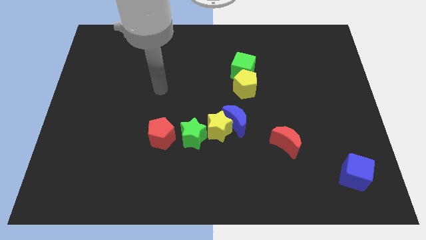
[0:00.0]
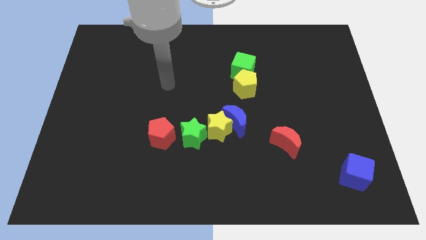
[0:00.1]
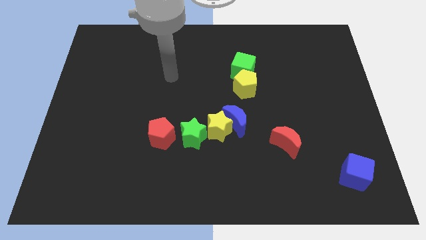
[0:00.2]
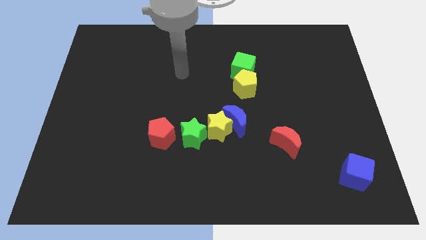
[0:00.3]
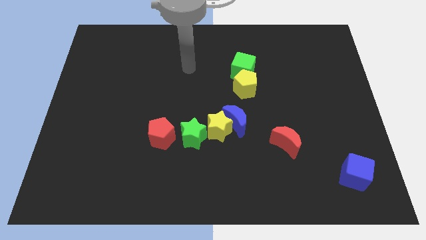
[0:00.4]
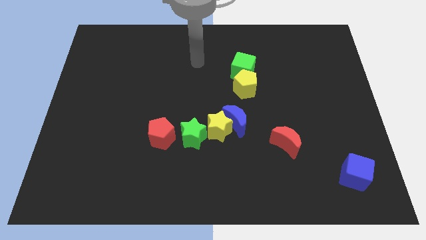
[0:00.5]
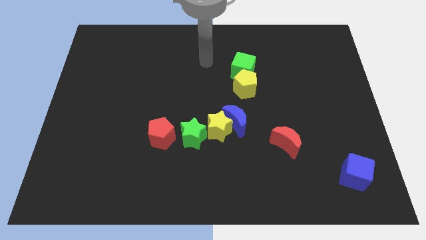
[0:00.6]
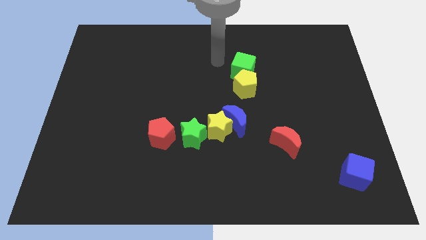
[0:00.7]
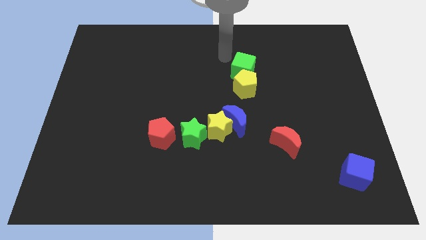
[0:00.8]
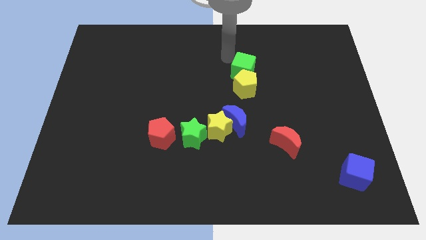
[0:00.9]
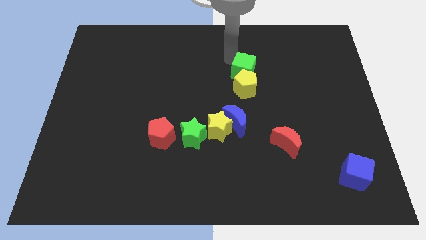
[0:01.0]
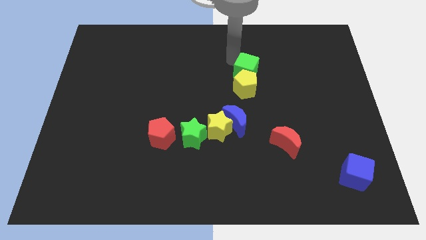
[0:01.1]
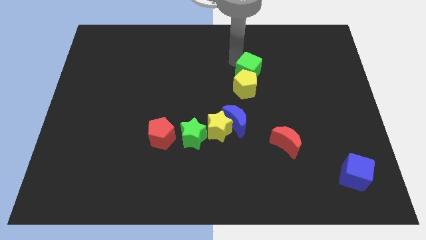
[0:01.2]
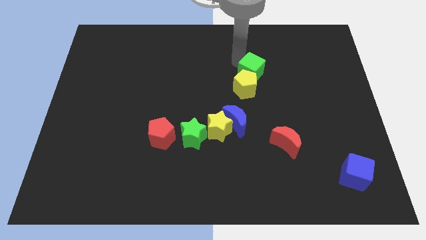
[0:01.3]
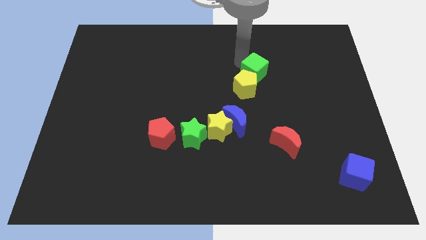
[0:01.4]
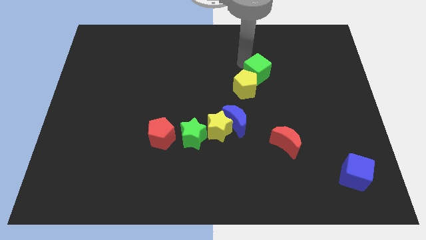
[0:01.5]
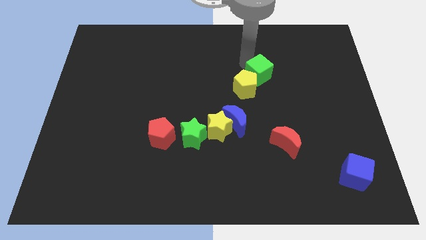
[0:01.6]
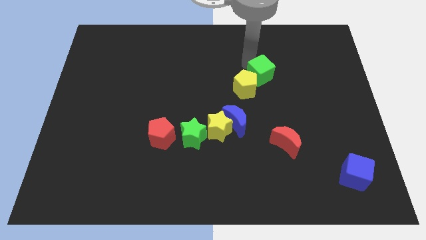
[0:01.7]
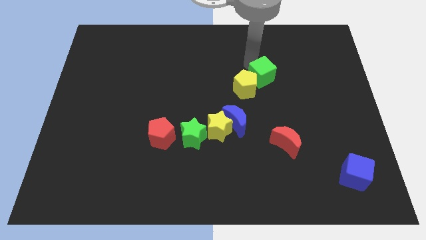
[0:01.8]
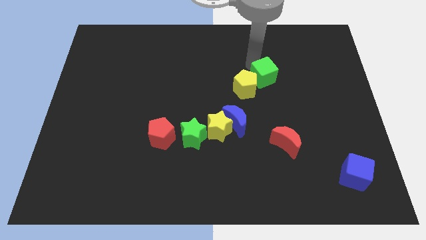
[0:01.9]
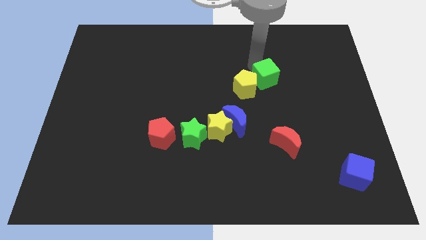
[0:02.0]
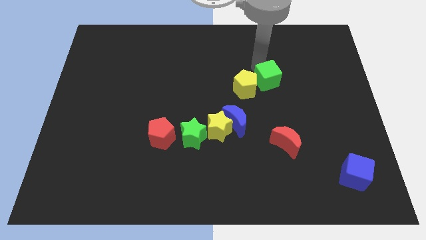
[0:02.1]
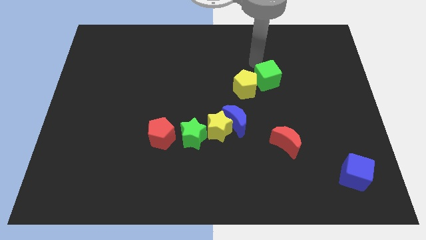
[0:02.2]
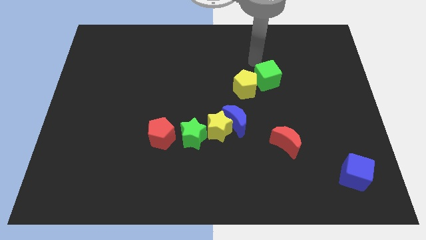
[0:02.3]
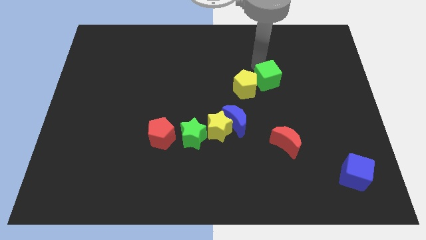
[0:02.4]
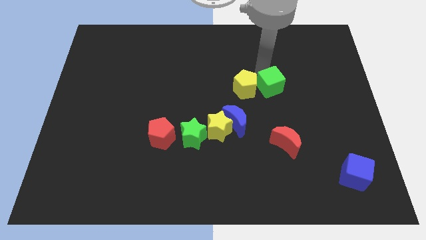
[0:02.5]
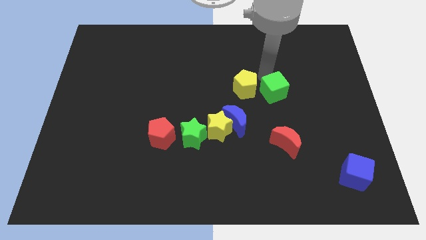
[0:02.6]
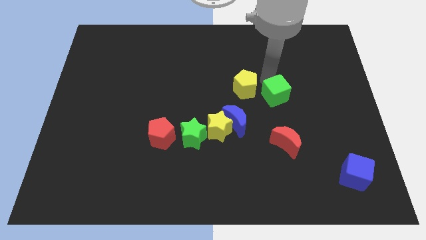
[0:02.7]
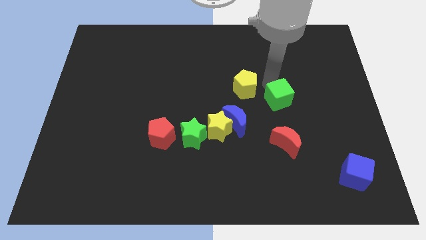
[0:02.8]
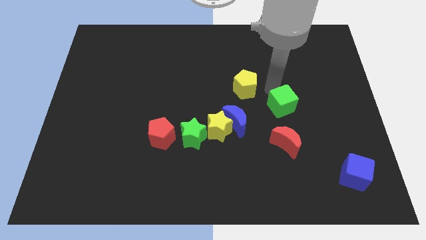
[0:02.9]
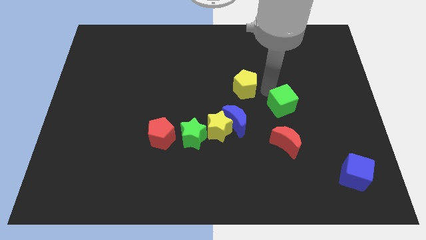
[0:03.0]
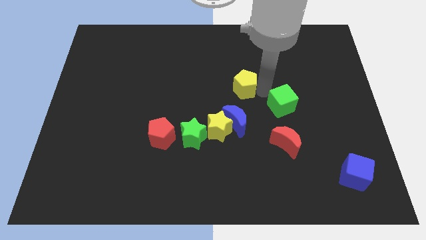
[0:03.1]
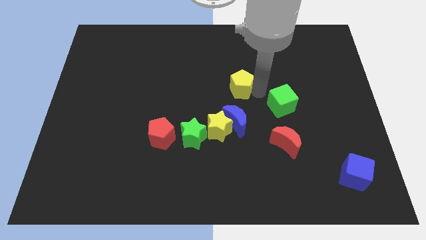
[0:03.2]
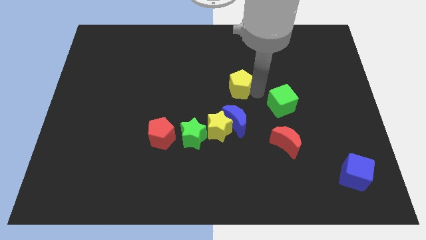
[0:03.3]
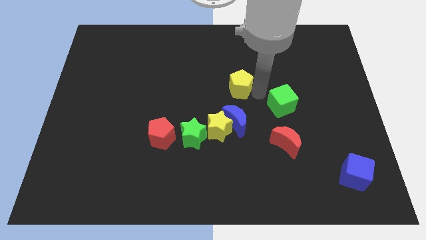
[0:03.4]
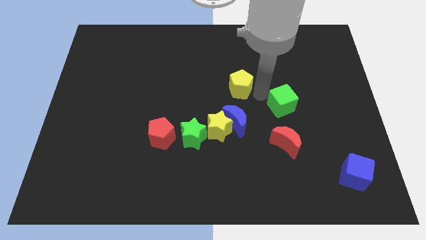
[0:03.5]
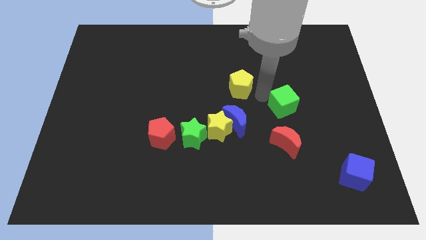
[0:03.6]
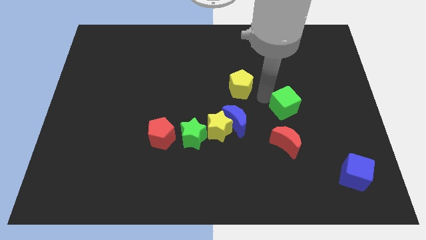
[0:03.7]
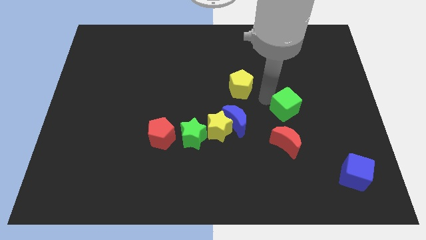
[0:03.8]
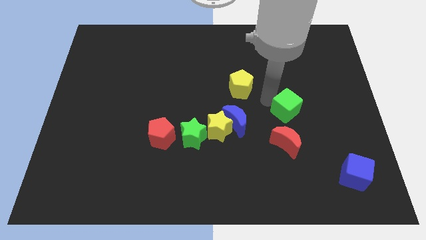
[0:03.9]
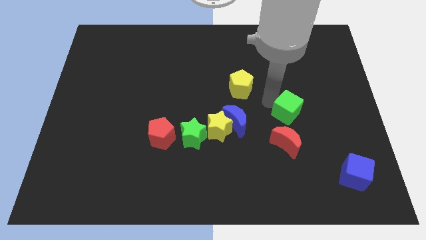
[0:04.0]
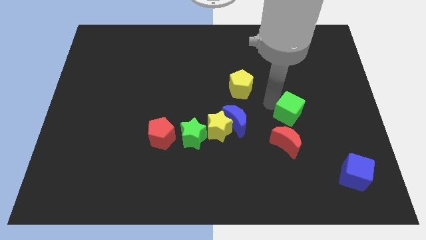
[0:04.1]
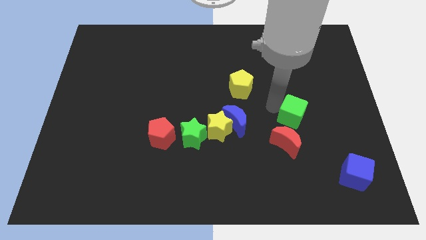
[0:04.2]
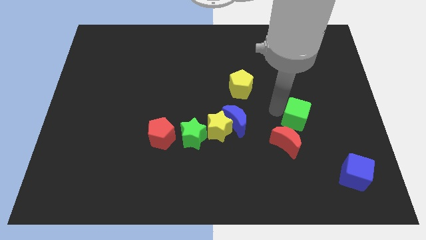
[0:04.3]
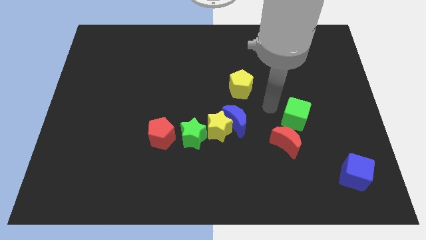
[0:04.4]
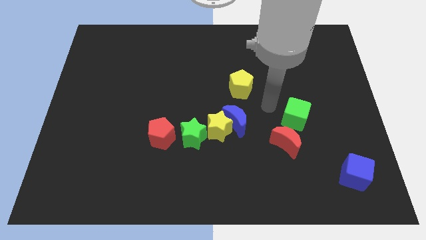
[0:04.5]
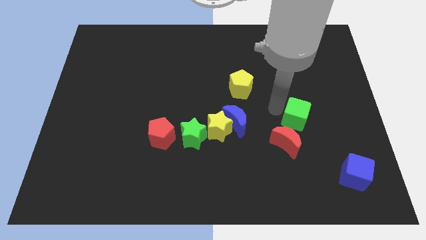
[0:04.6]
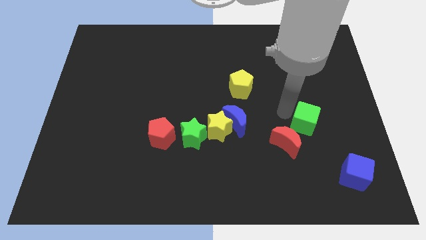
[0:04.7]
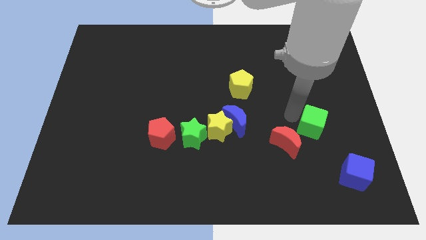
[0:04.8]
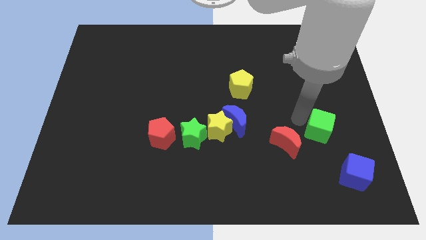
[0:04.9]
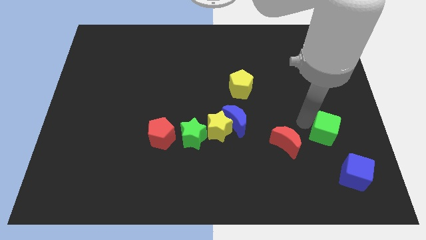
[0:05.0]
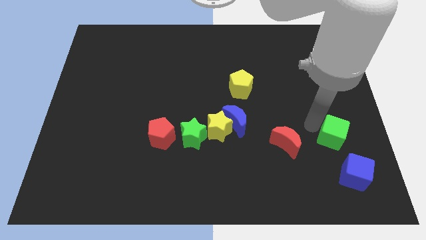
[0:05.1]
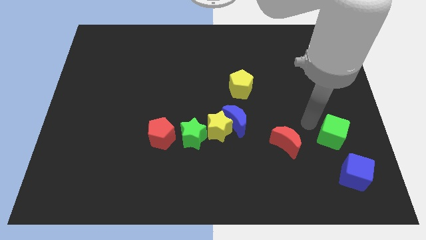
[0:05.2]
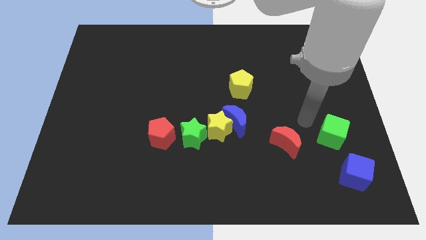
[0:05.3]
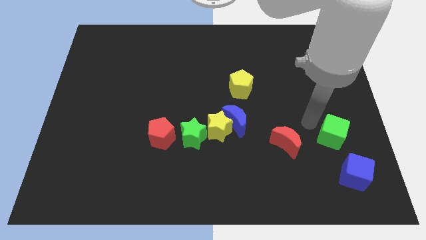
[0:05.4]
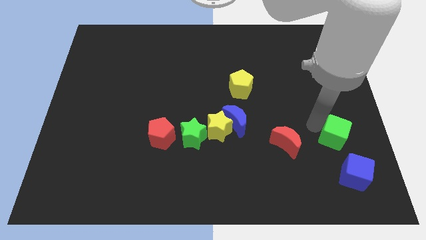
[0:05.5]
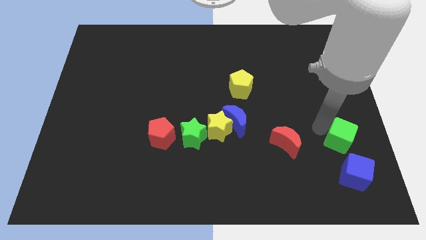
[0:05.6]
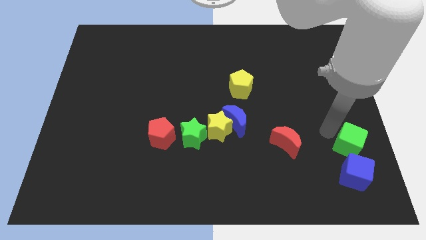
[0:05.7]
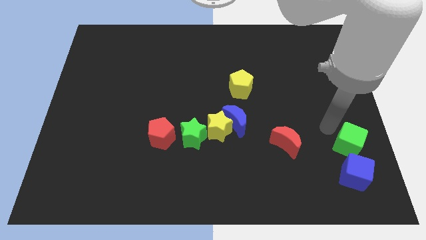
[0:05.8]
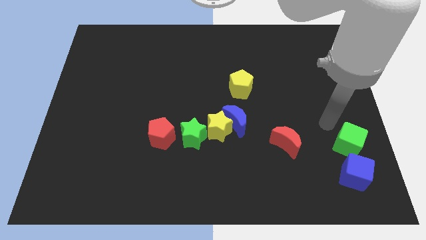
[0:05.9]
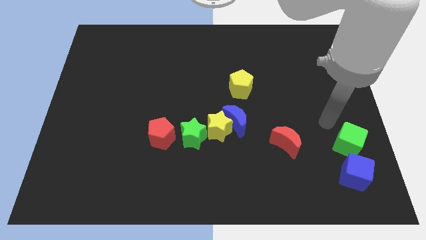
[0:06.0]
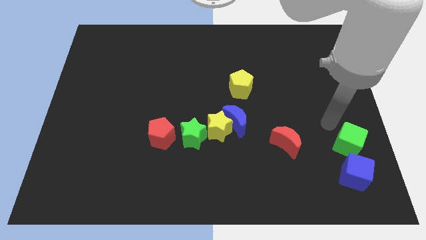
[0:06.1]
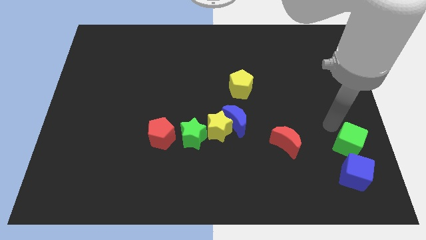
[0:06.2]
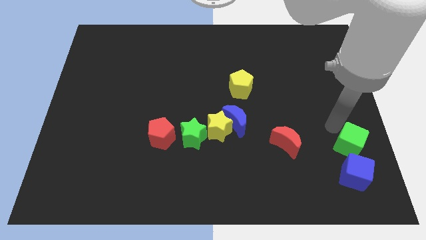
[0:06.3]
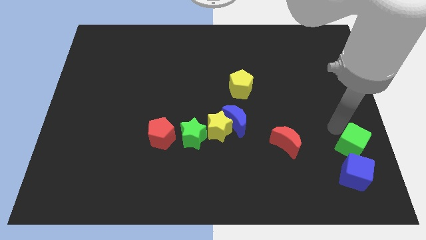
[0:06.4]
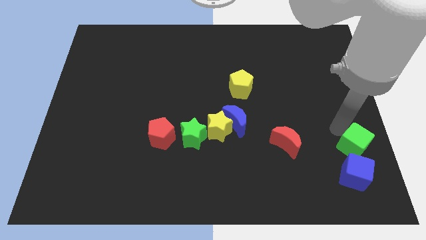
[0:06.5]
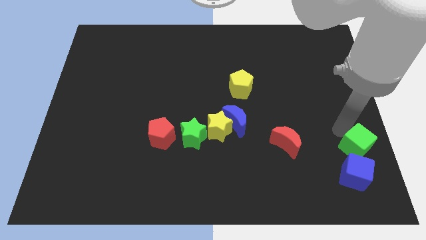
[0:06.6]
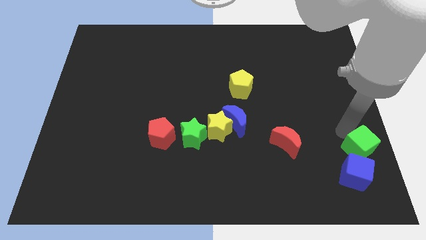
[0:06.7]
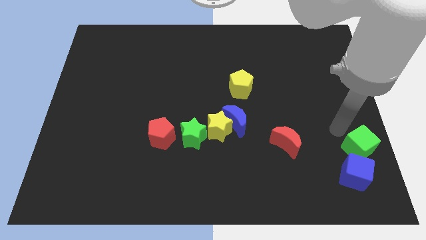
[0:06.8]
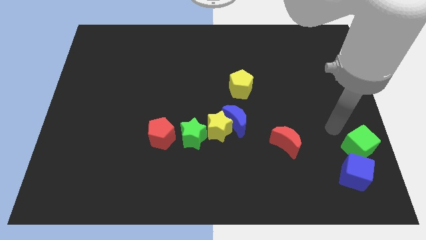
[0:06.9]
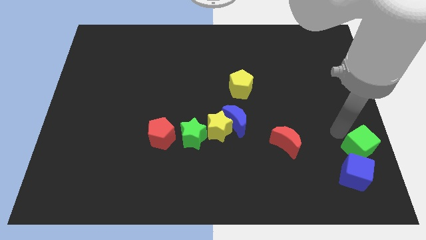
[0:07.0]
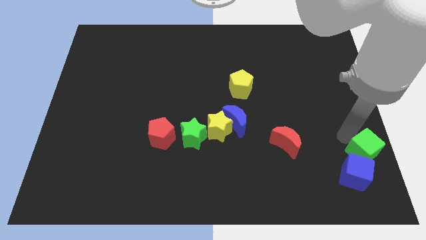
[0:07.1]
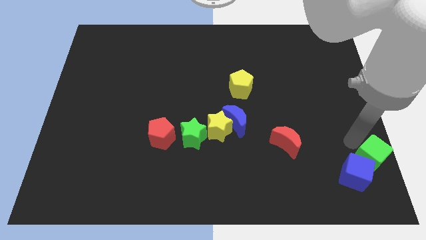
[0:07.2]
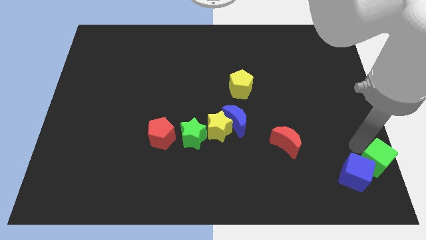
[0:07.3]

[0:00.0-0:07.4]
put the green cube to the bottom right
